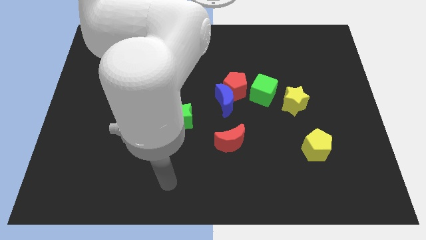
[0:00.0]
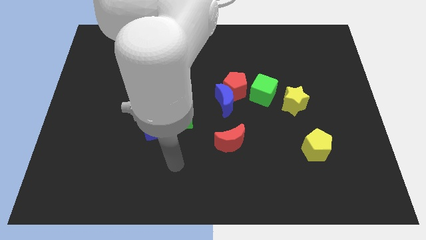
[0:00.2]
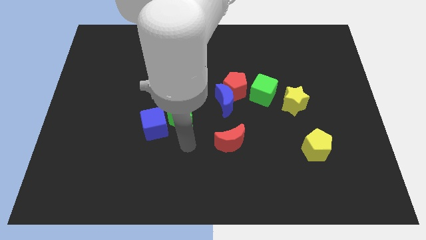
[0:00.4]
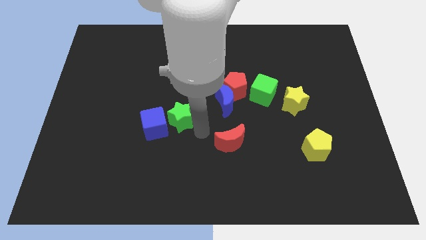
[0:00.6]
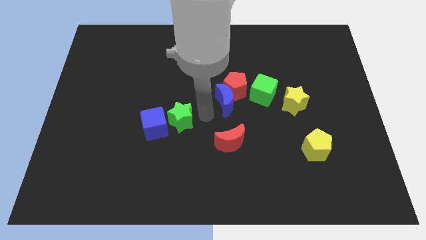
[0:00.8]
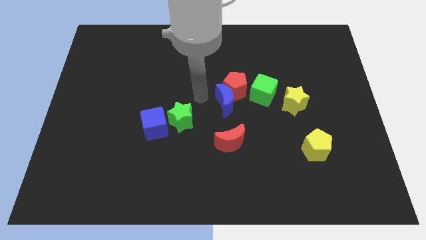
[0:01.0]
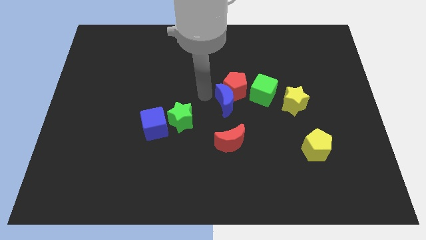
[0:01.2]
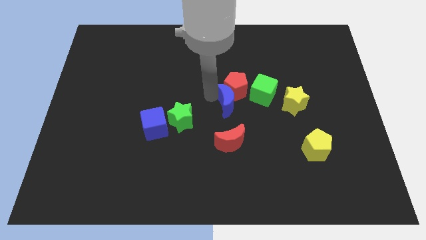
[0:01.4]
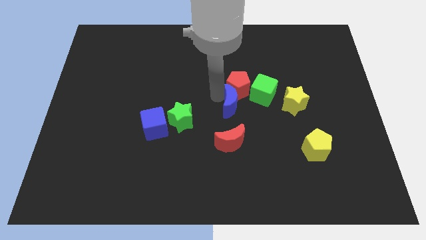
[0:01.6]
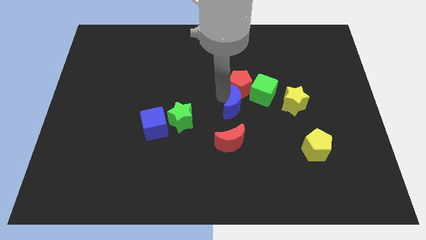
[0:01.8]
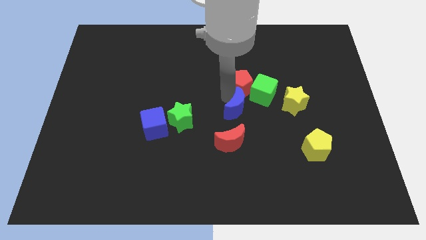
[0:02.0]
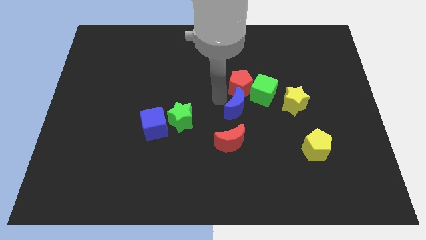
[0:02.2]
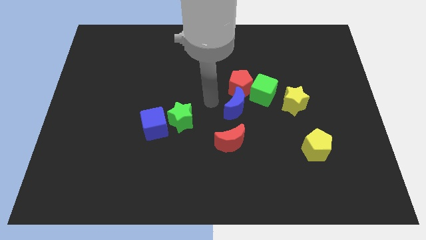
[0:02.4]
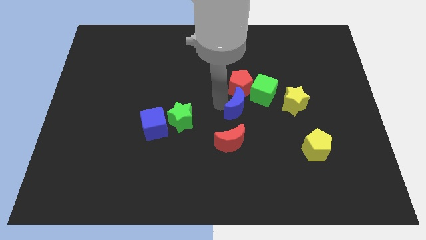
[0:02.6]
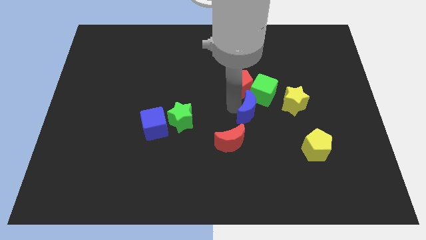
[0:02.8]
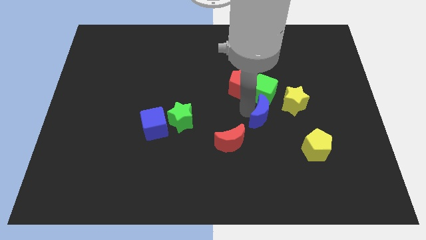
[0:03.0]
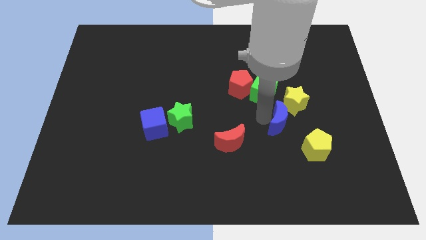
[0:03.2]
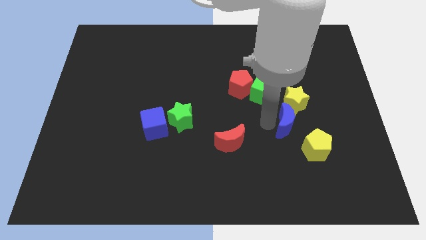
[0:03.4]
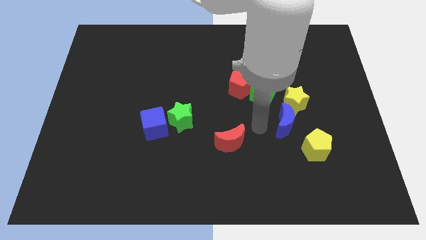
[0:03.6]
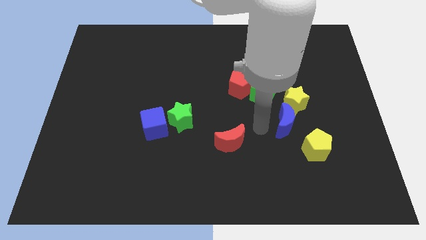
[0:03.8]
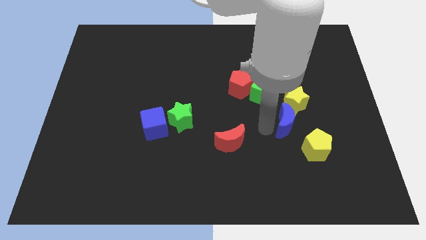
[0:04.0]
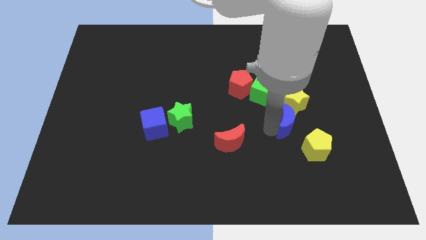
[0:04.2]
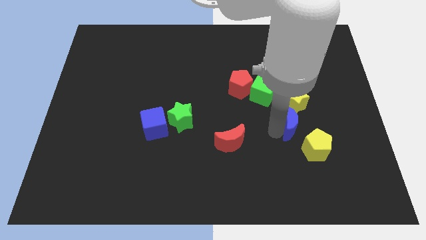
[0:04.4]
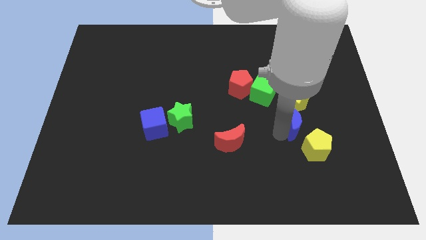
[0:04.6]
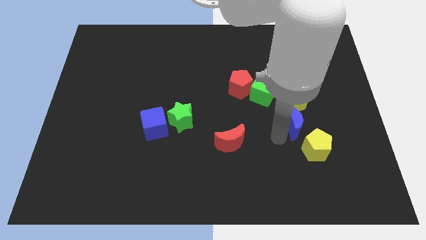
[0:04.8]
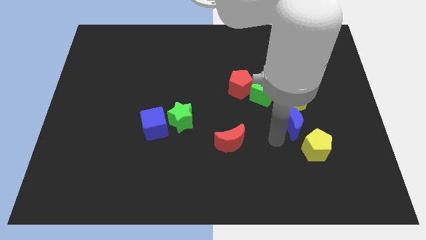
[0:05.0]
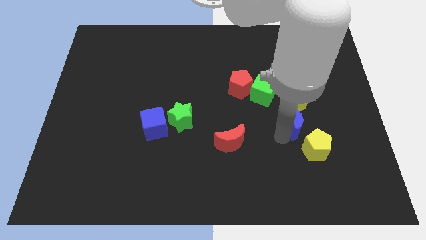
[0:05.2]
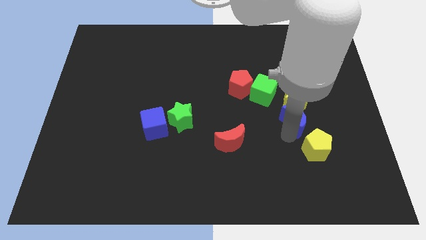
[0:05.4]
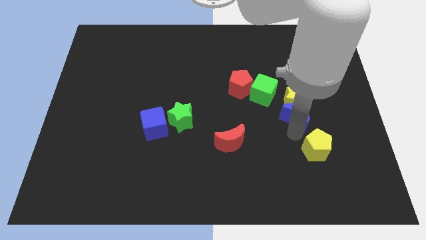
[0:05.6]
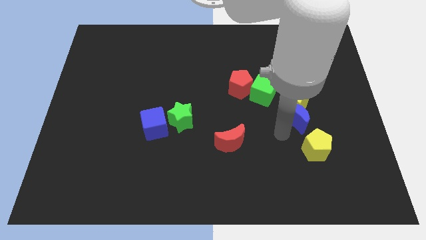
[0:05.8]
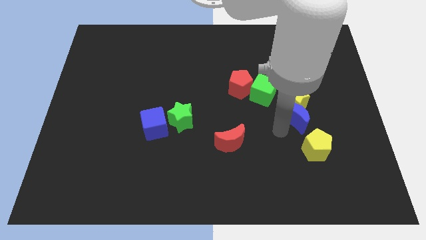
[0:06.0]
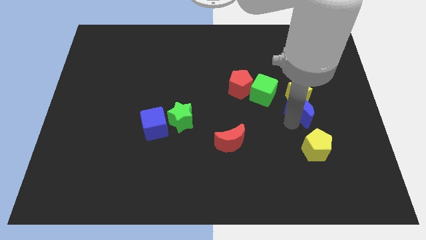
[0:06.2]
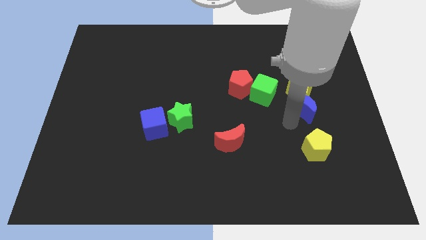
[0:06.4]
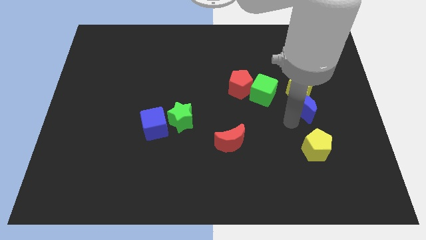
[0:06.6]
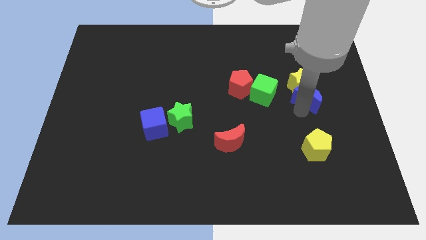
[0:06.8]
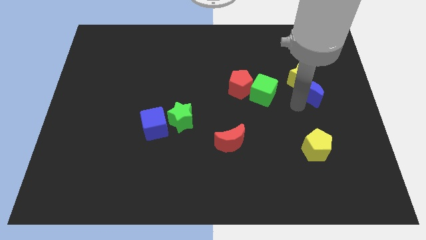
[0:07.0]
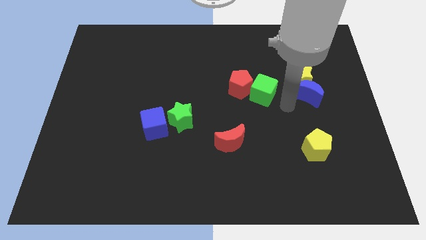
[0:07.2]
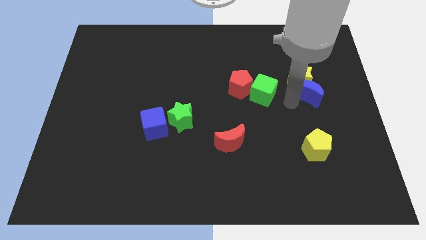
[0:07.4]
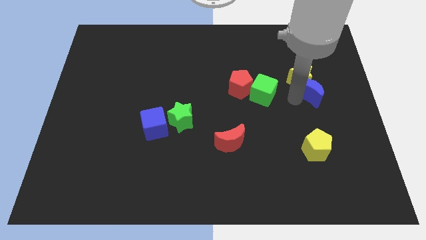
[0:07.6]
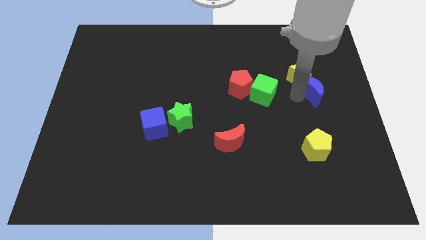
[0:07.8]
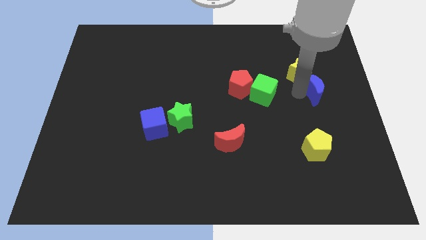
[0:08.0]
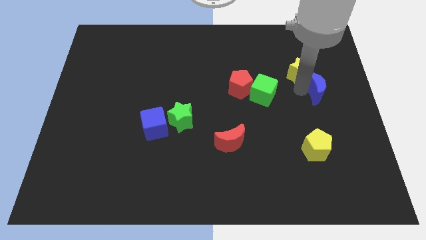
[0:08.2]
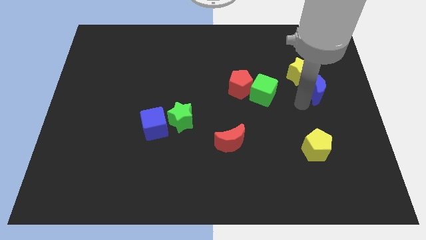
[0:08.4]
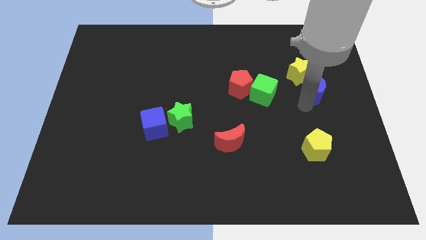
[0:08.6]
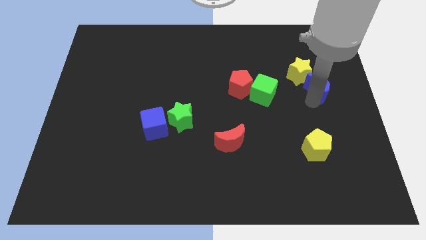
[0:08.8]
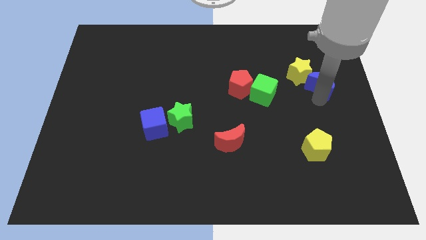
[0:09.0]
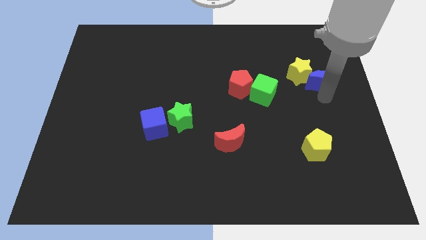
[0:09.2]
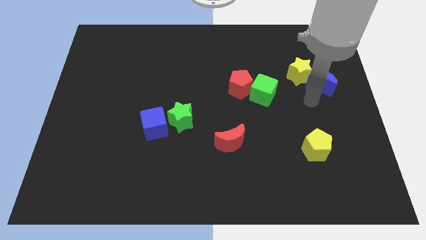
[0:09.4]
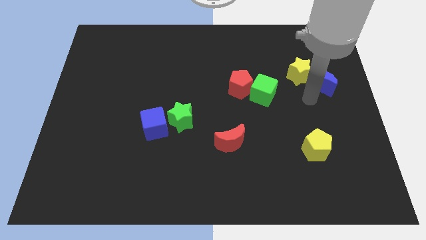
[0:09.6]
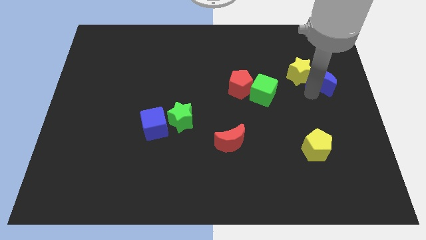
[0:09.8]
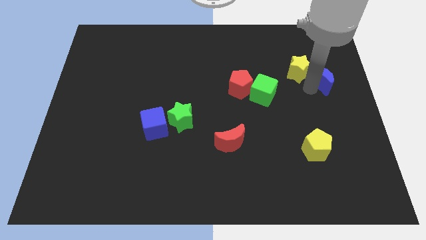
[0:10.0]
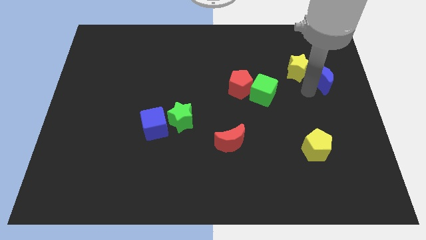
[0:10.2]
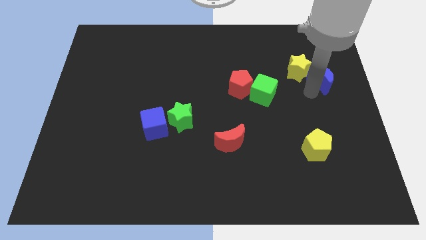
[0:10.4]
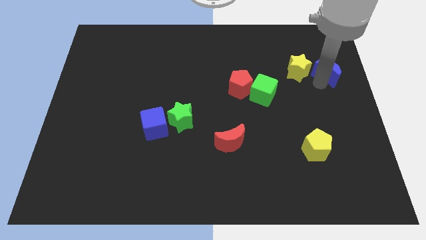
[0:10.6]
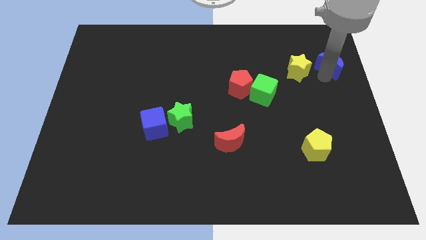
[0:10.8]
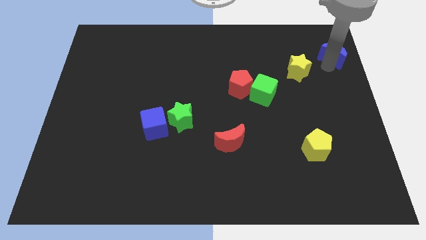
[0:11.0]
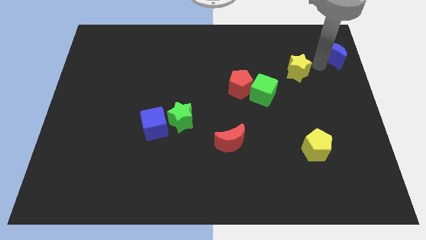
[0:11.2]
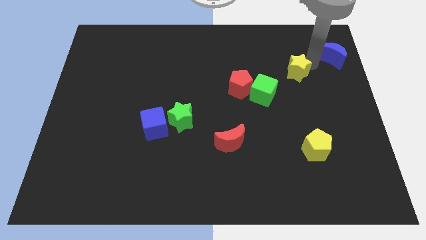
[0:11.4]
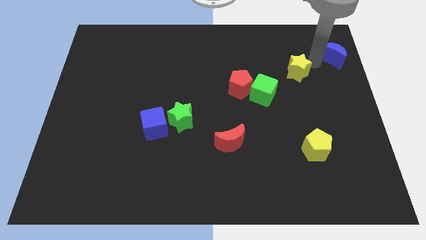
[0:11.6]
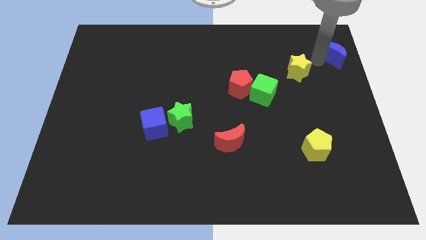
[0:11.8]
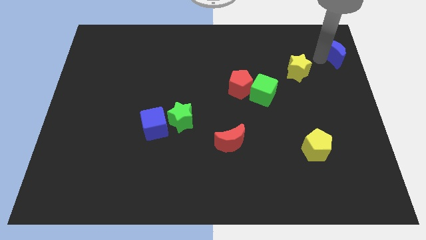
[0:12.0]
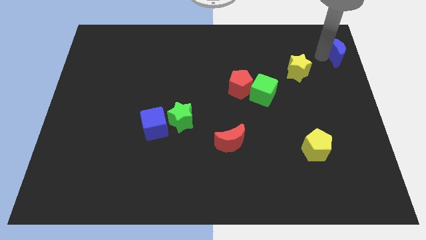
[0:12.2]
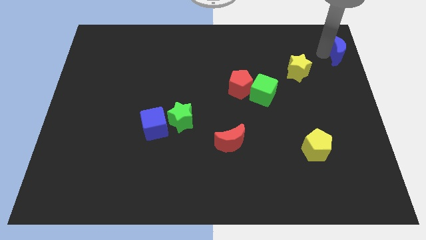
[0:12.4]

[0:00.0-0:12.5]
move the blue moon to the top right of the board

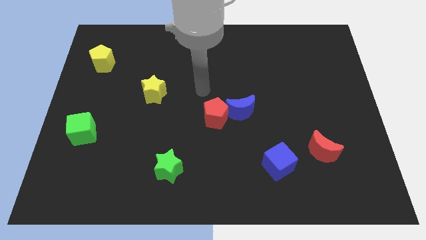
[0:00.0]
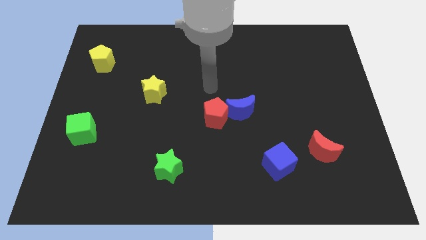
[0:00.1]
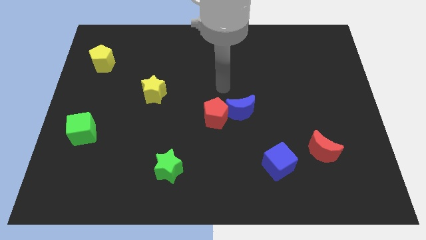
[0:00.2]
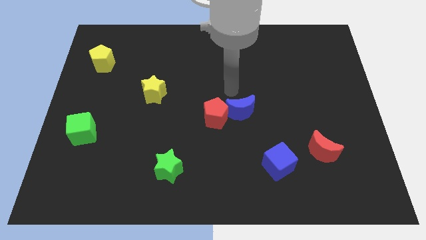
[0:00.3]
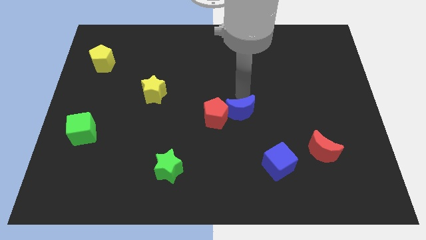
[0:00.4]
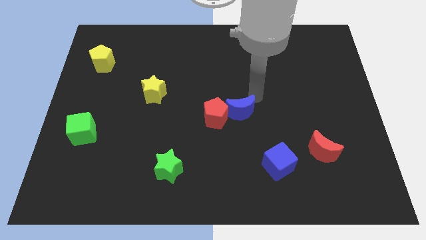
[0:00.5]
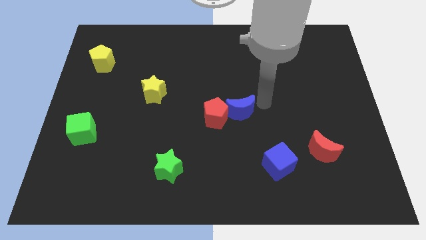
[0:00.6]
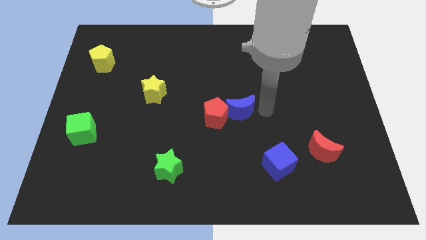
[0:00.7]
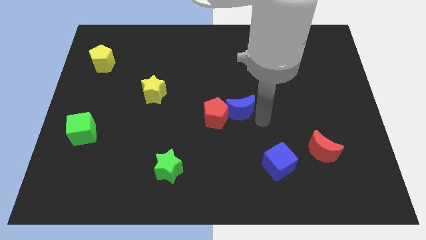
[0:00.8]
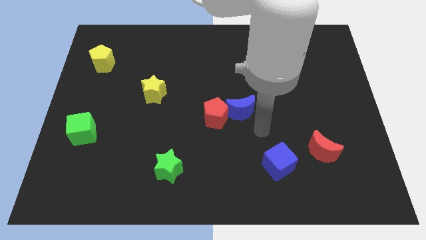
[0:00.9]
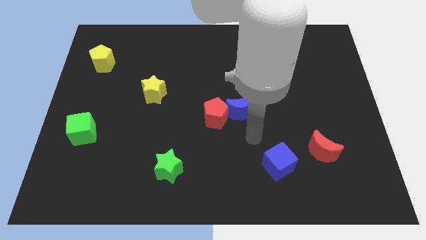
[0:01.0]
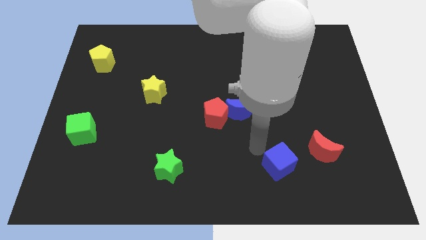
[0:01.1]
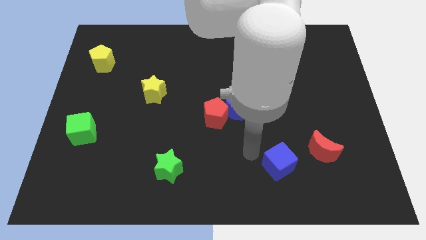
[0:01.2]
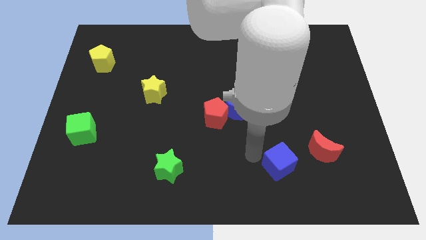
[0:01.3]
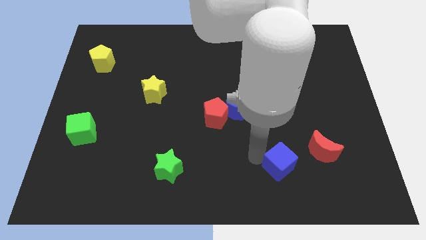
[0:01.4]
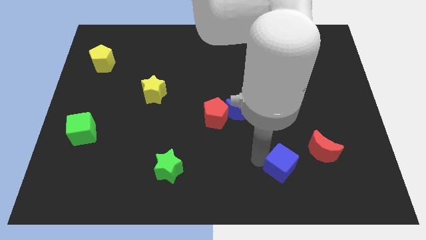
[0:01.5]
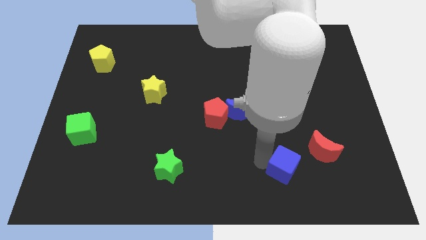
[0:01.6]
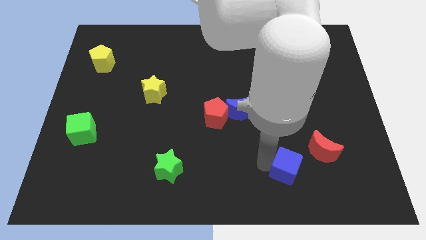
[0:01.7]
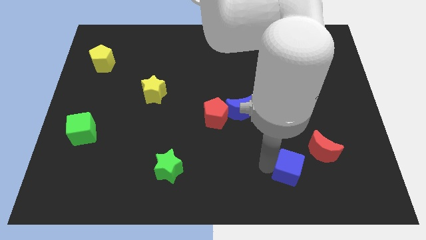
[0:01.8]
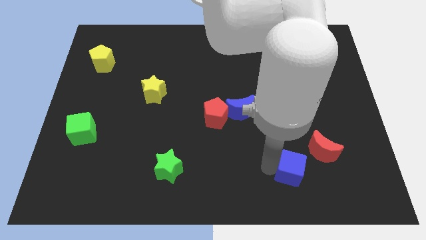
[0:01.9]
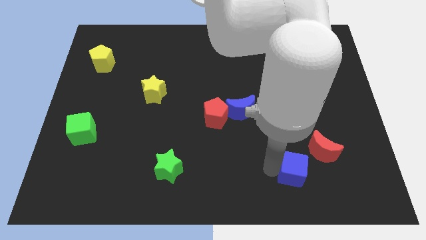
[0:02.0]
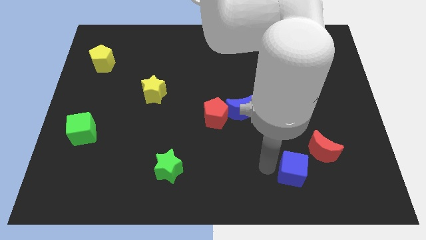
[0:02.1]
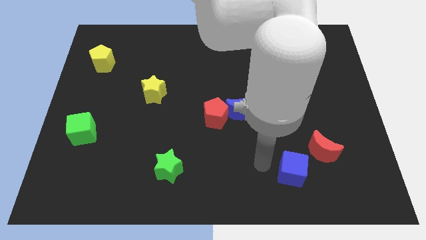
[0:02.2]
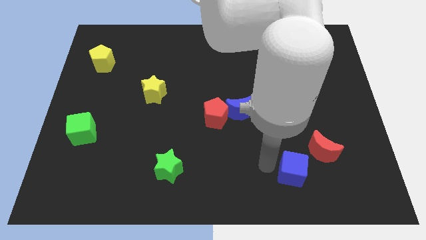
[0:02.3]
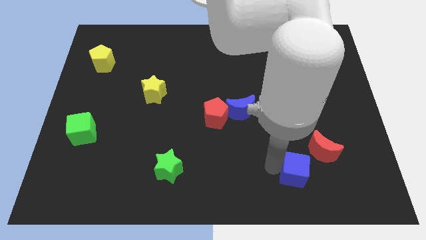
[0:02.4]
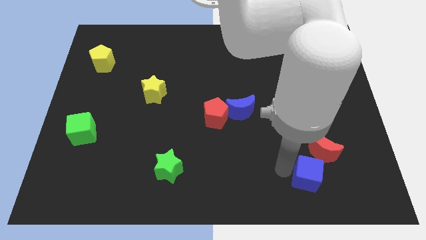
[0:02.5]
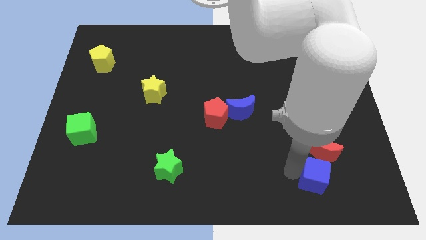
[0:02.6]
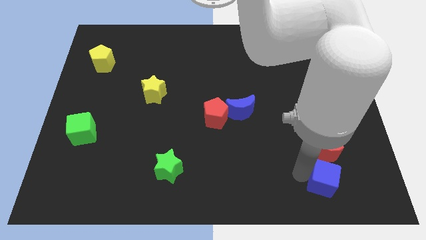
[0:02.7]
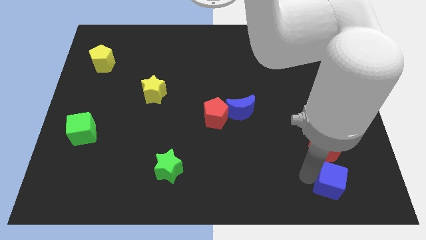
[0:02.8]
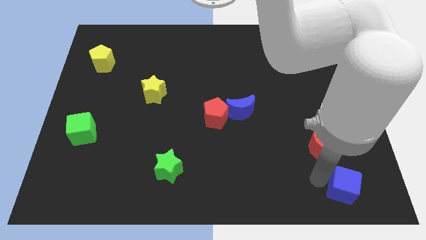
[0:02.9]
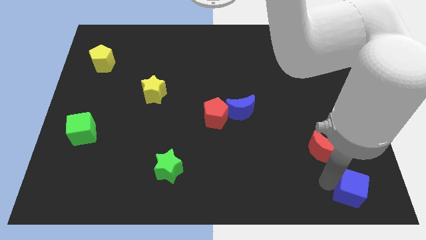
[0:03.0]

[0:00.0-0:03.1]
put the blue cube to the bottom right of the board
